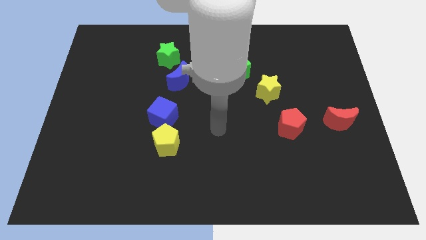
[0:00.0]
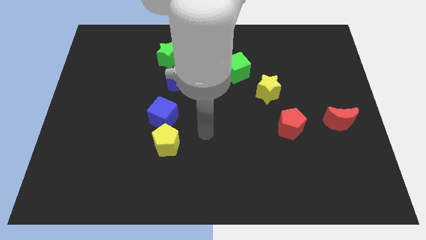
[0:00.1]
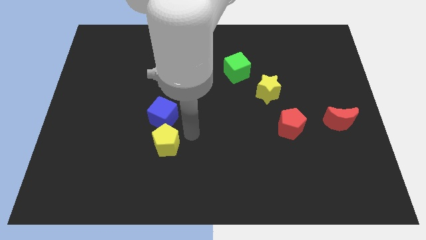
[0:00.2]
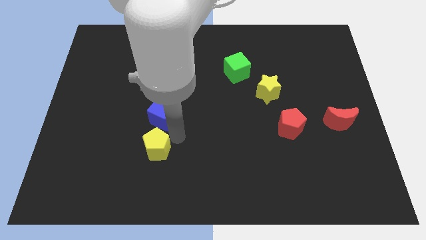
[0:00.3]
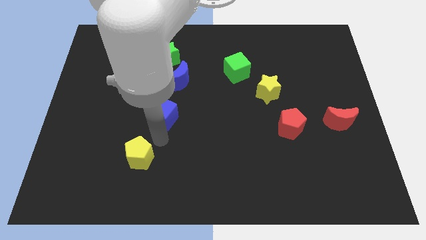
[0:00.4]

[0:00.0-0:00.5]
move the blue cube away from the yellow pentagon
